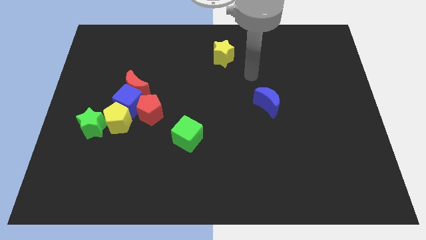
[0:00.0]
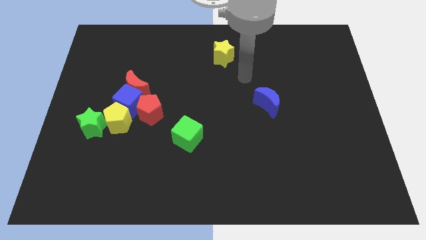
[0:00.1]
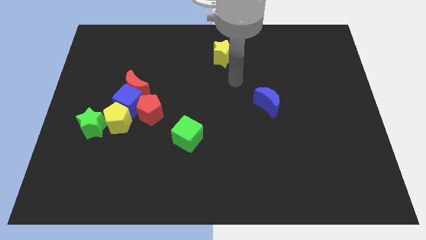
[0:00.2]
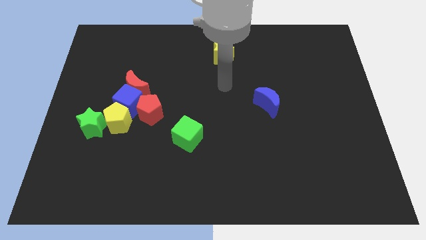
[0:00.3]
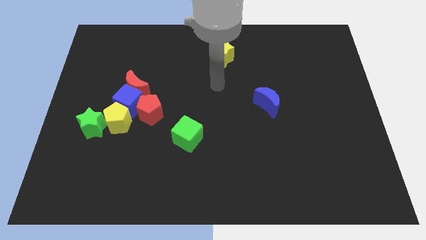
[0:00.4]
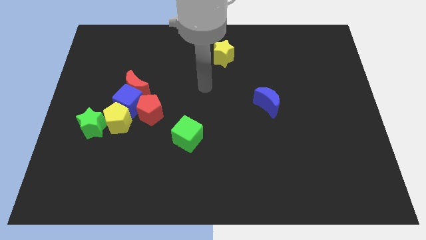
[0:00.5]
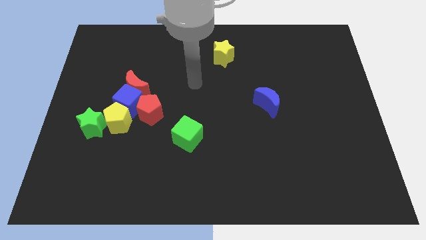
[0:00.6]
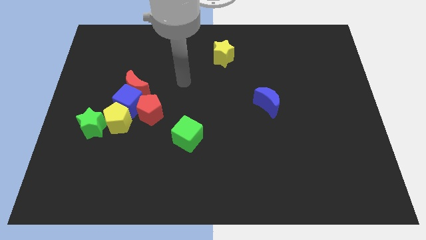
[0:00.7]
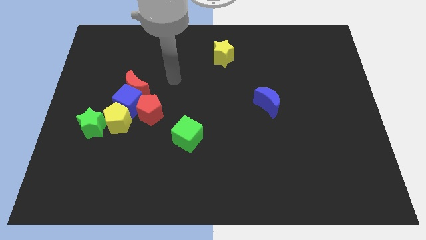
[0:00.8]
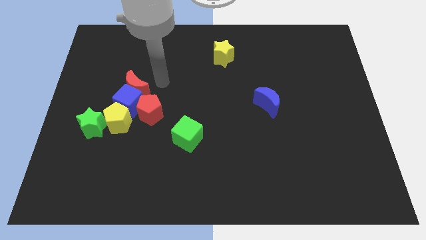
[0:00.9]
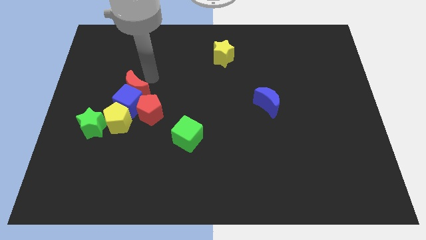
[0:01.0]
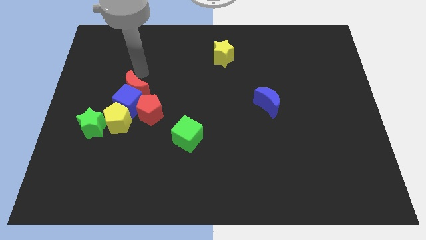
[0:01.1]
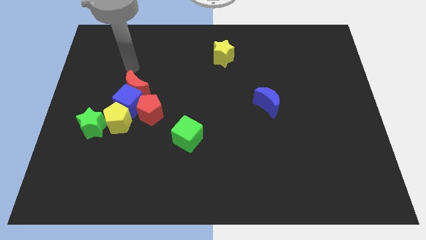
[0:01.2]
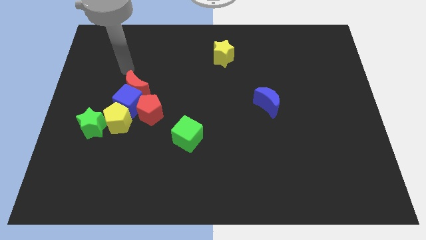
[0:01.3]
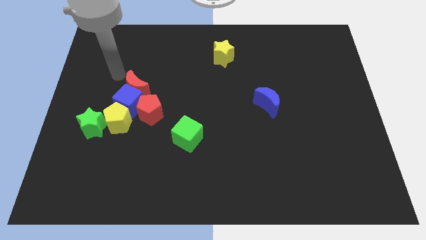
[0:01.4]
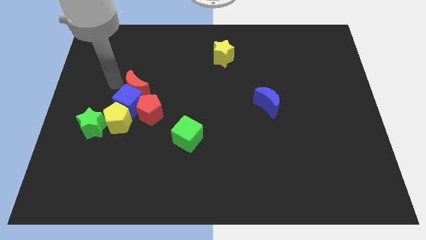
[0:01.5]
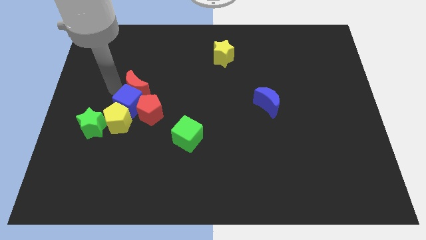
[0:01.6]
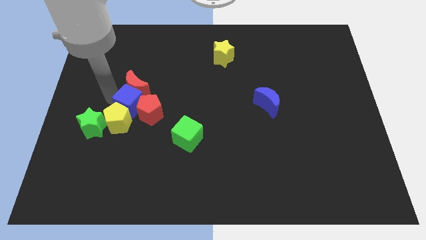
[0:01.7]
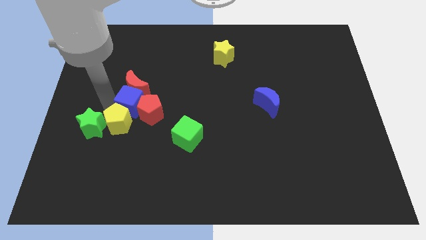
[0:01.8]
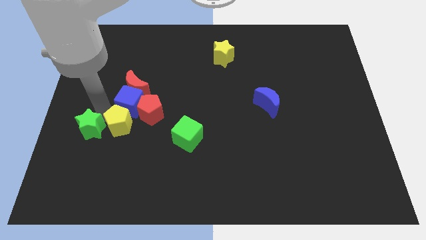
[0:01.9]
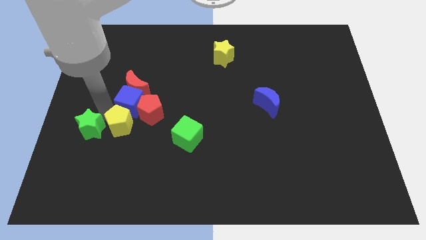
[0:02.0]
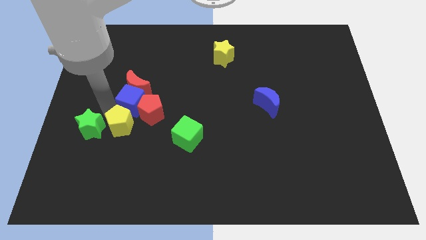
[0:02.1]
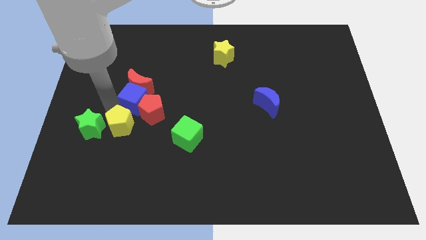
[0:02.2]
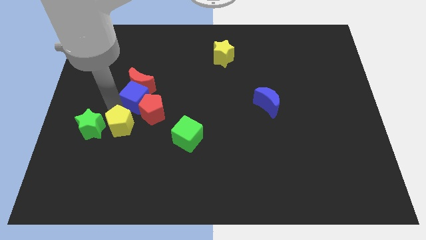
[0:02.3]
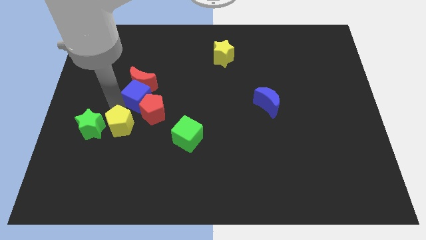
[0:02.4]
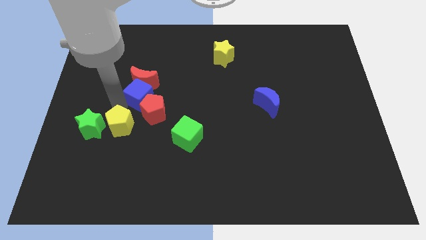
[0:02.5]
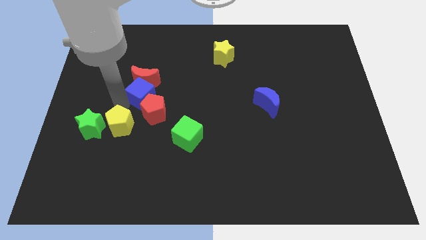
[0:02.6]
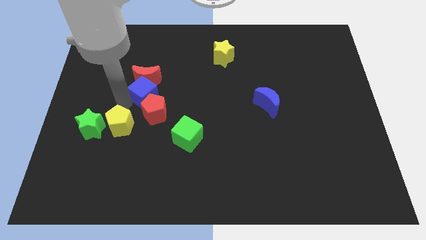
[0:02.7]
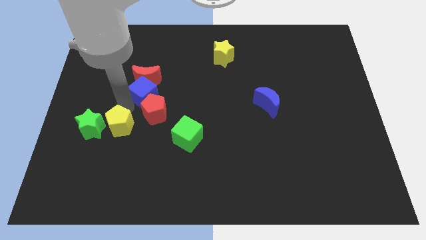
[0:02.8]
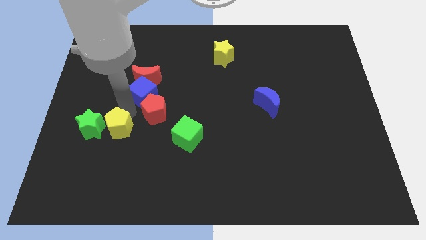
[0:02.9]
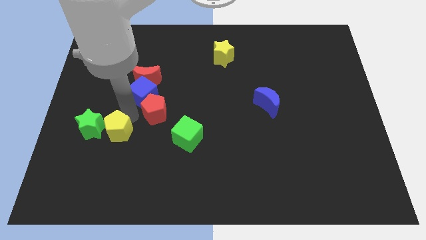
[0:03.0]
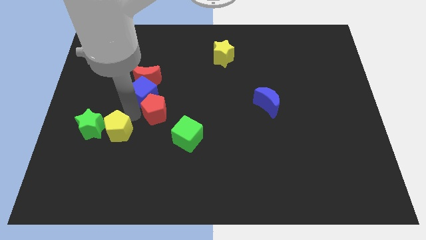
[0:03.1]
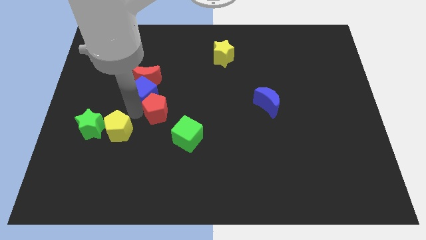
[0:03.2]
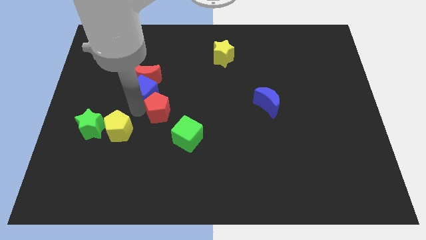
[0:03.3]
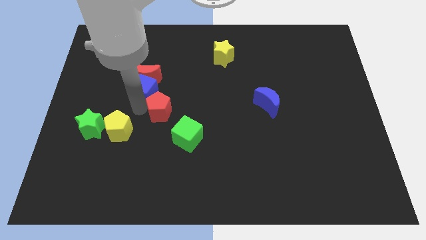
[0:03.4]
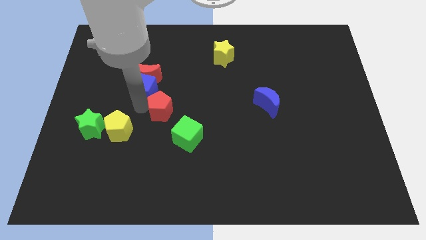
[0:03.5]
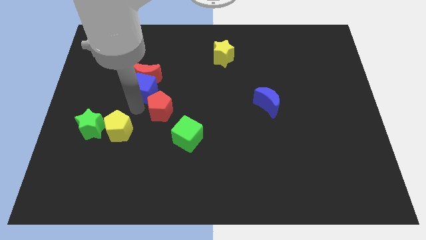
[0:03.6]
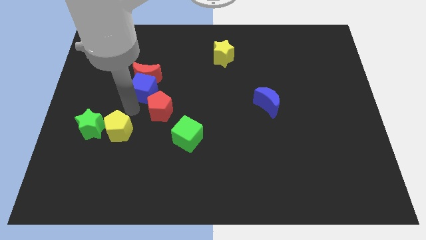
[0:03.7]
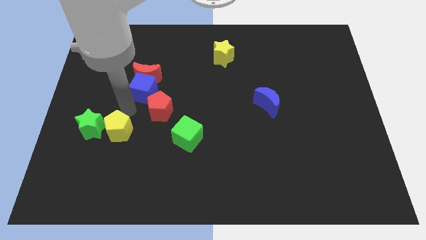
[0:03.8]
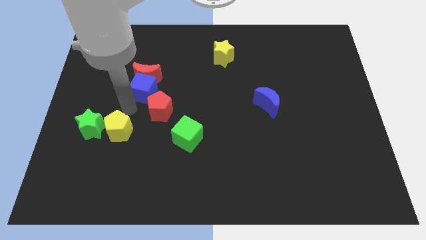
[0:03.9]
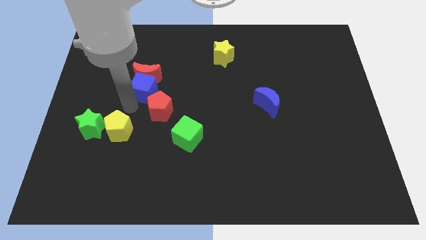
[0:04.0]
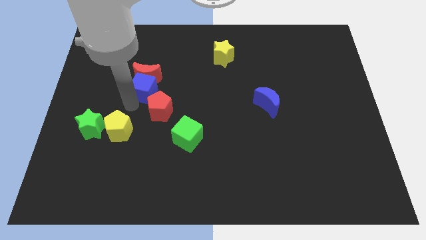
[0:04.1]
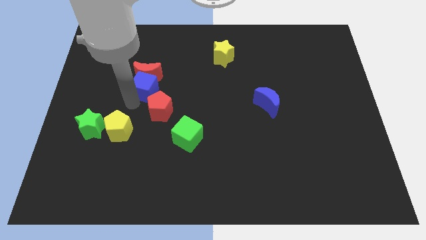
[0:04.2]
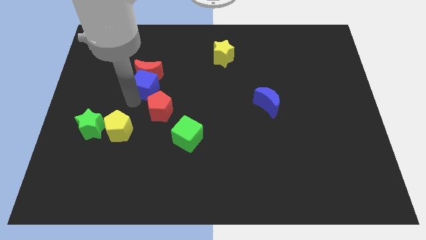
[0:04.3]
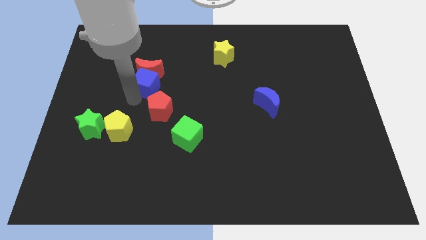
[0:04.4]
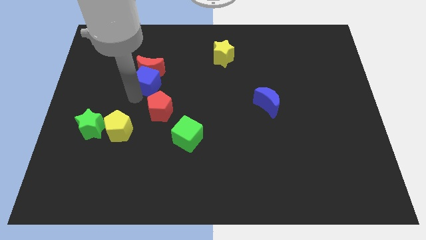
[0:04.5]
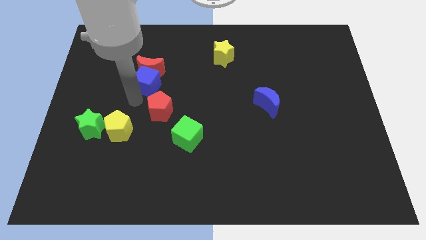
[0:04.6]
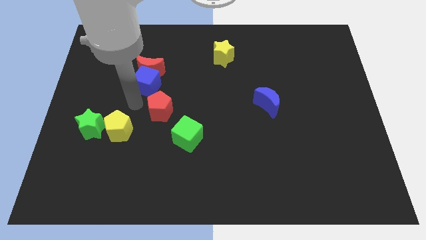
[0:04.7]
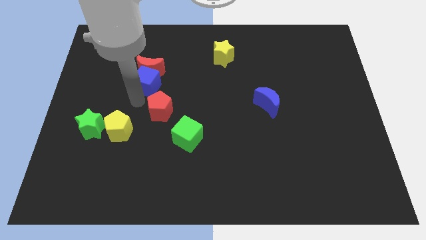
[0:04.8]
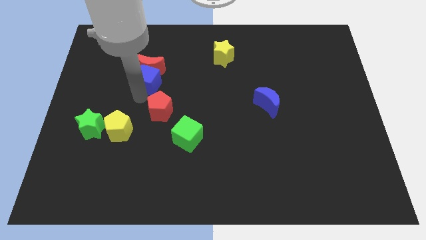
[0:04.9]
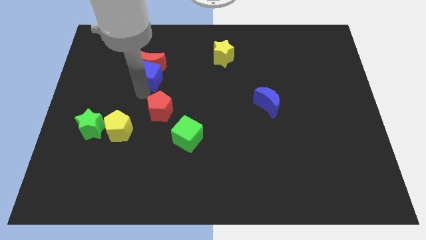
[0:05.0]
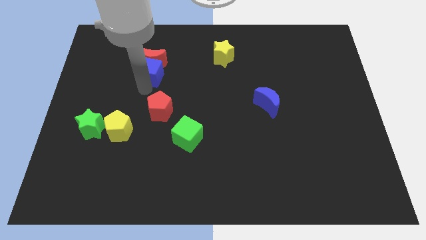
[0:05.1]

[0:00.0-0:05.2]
pull the blue cube apart from the group

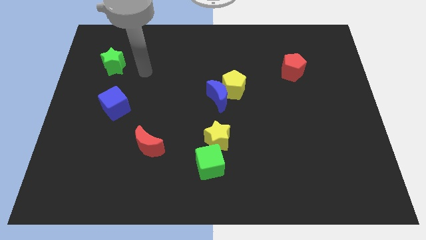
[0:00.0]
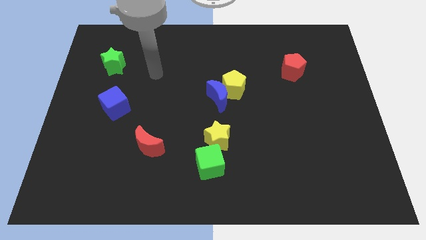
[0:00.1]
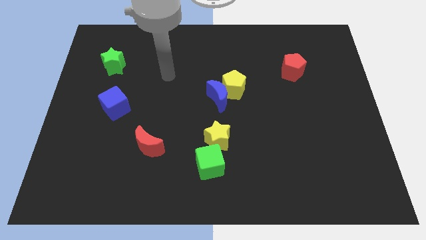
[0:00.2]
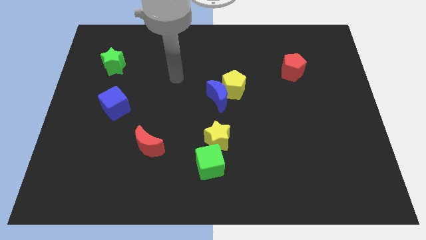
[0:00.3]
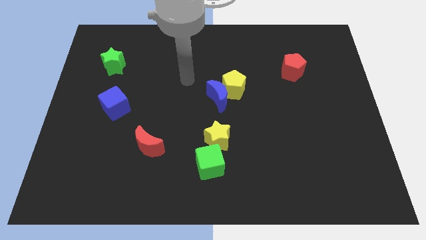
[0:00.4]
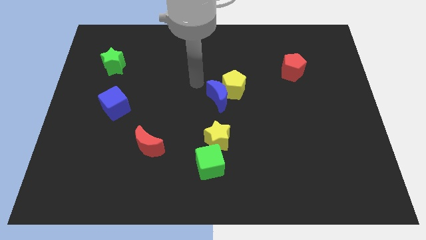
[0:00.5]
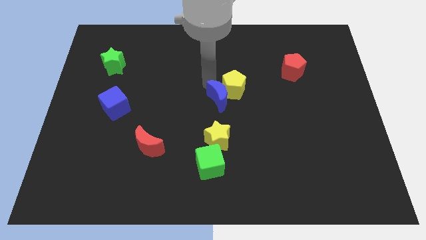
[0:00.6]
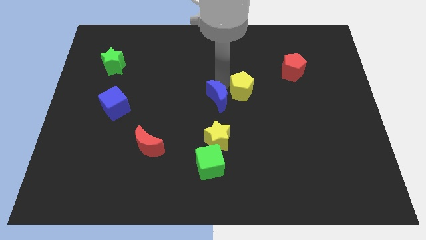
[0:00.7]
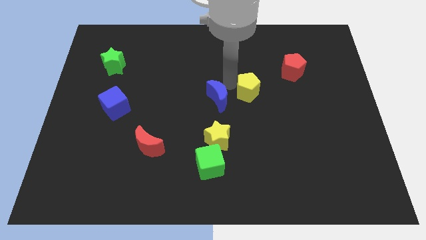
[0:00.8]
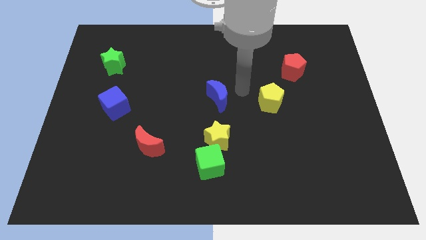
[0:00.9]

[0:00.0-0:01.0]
separate the blue moon from the yellow pentagon

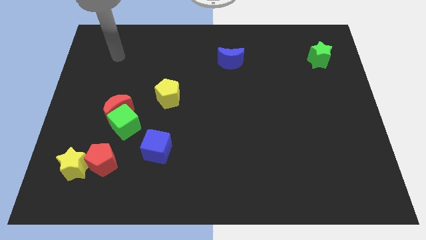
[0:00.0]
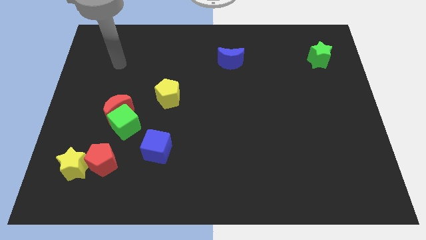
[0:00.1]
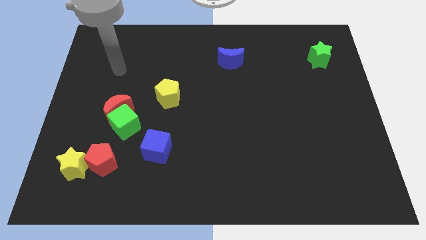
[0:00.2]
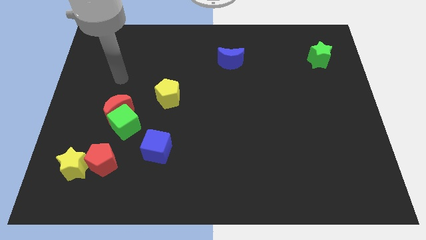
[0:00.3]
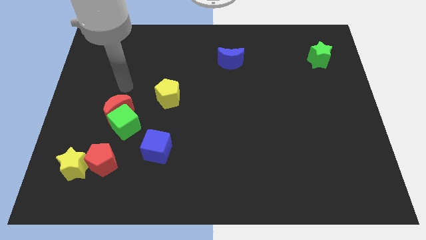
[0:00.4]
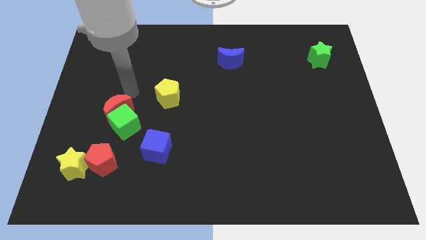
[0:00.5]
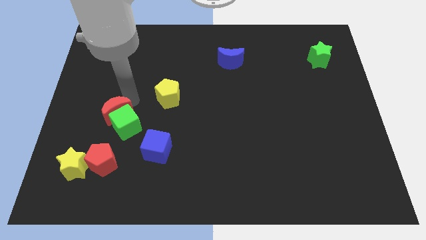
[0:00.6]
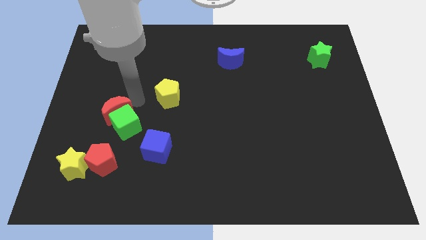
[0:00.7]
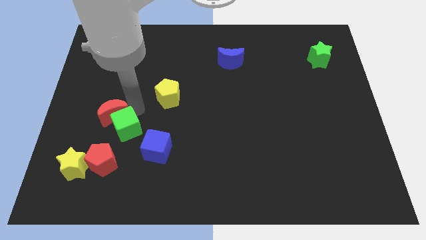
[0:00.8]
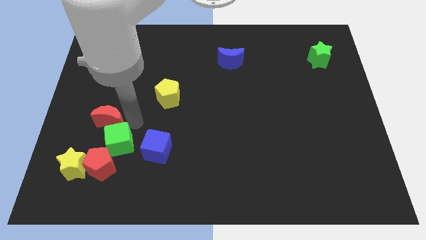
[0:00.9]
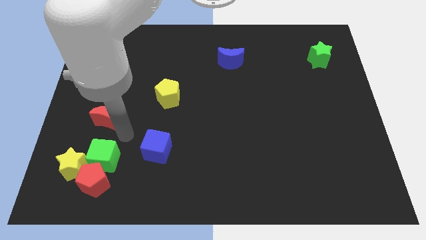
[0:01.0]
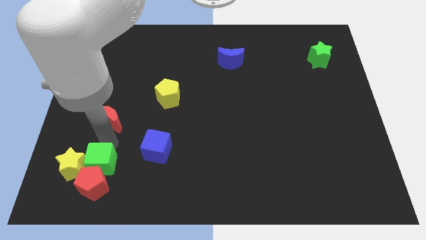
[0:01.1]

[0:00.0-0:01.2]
move the red moon away from the green cube

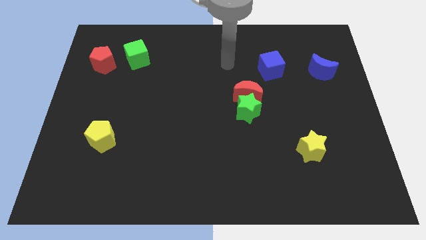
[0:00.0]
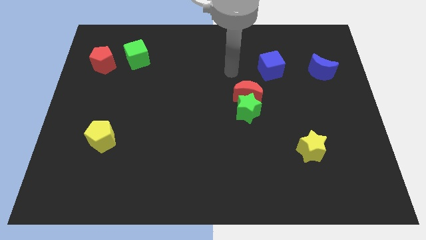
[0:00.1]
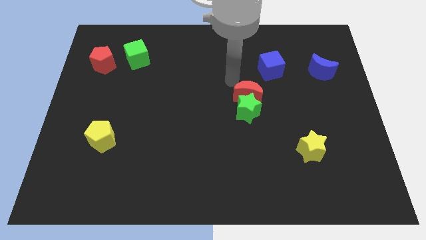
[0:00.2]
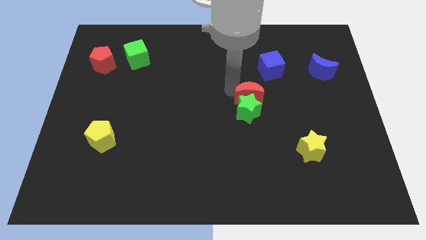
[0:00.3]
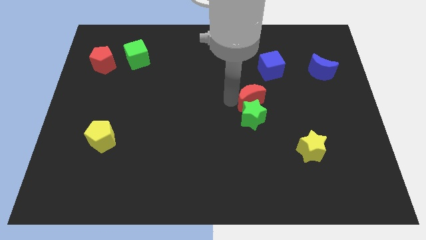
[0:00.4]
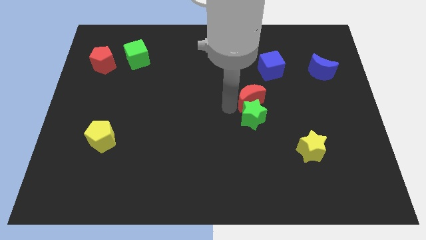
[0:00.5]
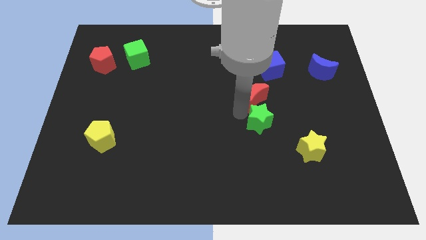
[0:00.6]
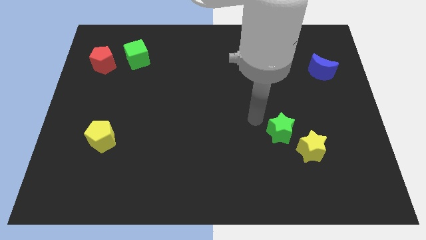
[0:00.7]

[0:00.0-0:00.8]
separate the red moon from the green star

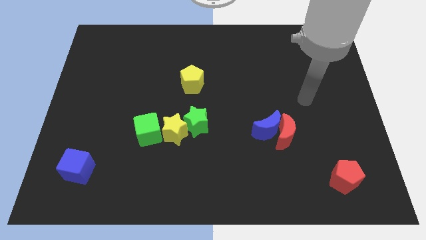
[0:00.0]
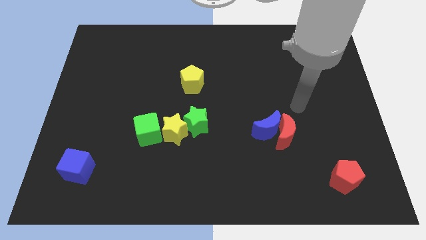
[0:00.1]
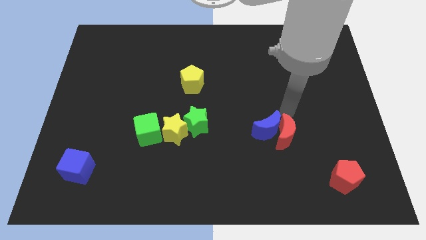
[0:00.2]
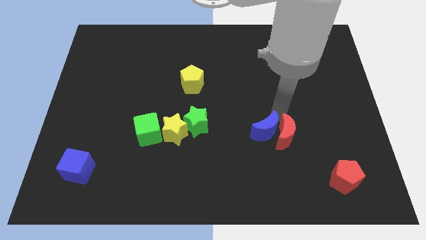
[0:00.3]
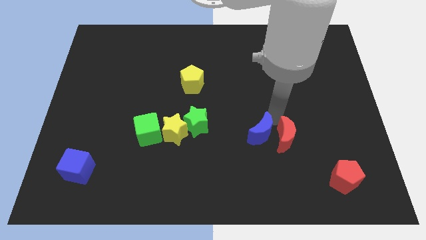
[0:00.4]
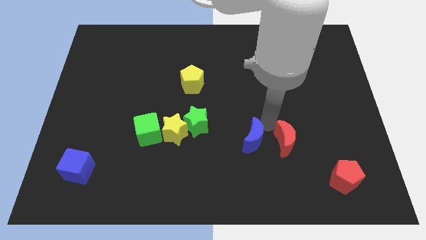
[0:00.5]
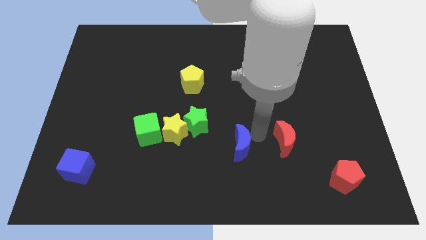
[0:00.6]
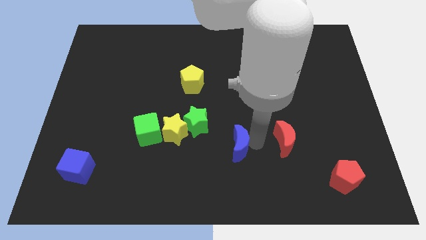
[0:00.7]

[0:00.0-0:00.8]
pull the red moon apart from the blue moon

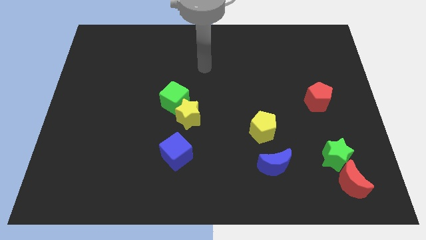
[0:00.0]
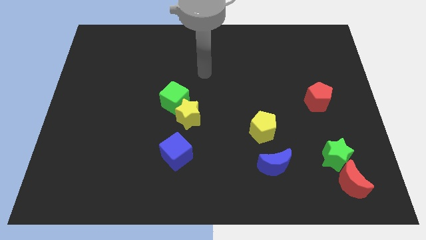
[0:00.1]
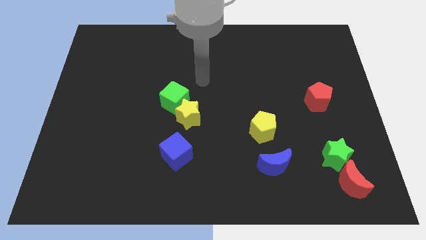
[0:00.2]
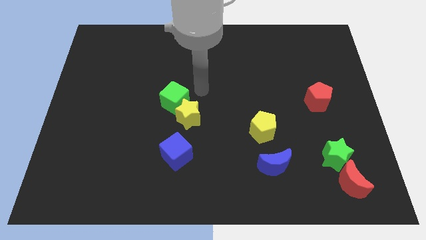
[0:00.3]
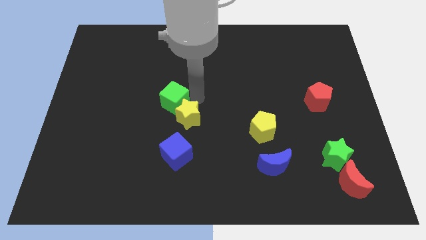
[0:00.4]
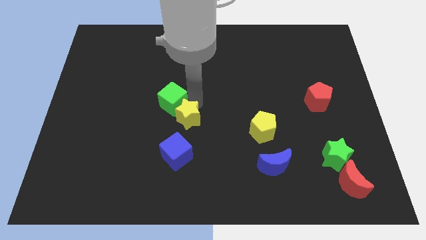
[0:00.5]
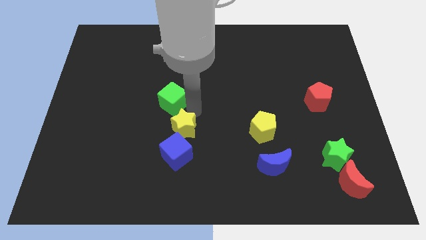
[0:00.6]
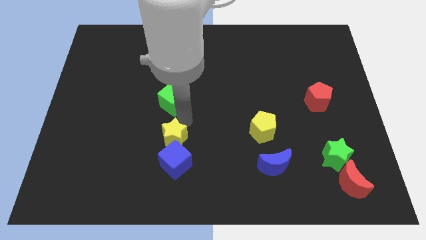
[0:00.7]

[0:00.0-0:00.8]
separate the green cube from the yellow star
